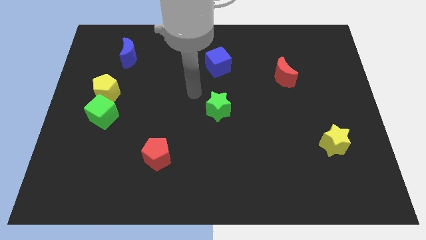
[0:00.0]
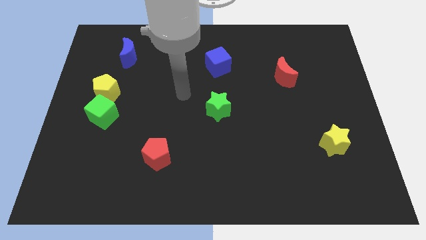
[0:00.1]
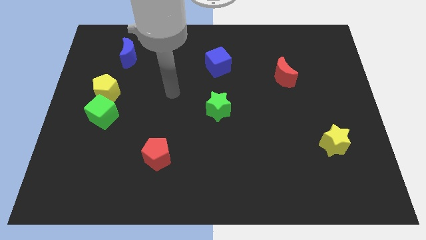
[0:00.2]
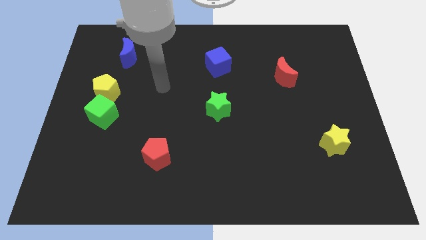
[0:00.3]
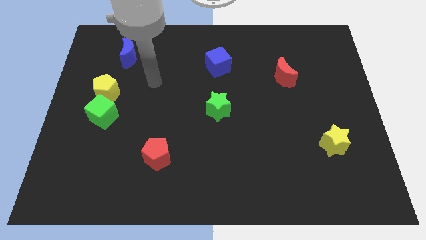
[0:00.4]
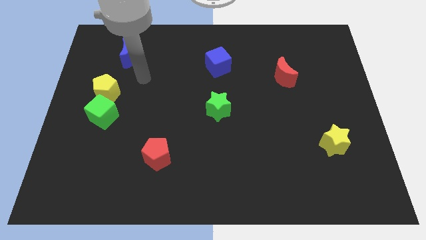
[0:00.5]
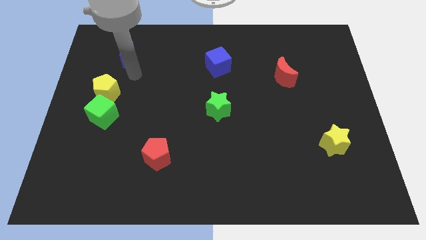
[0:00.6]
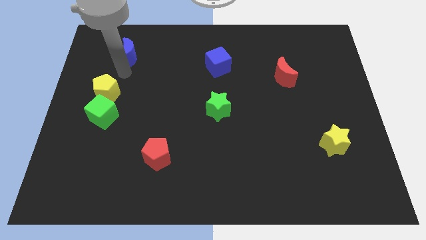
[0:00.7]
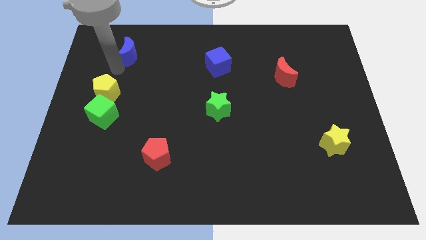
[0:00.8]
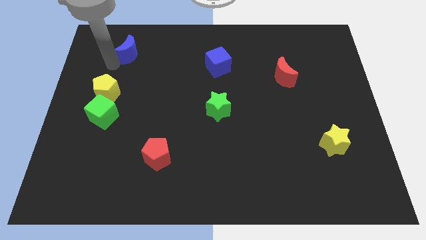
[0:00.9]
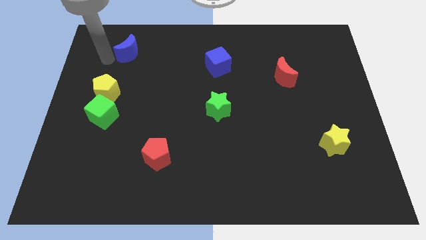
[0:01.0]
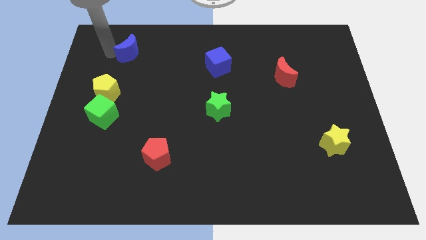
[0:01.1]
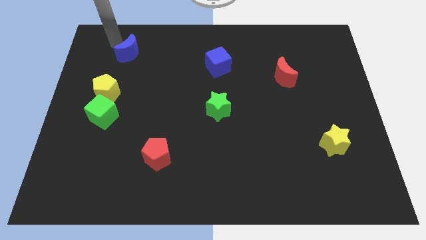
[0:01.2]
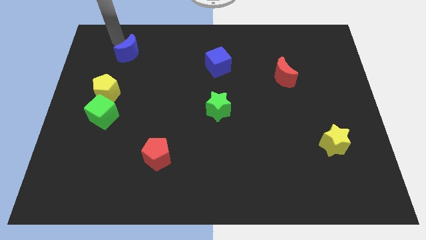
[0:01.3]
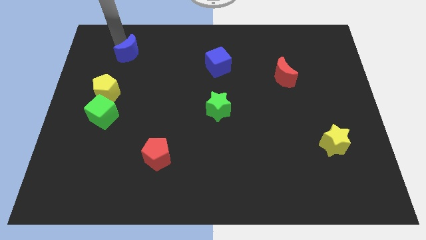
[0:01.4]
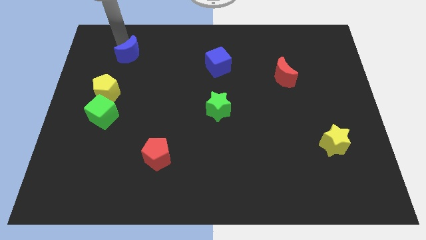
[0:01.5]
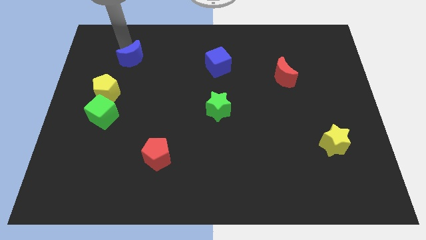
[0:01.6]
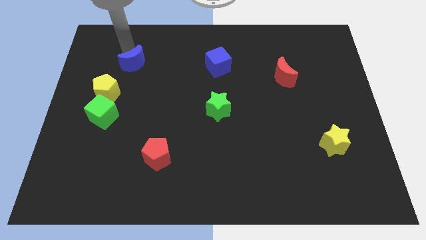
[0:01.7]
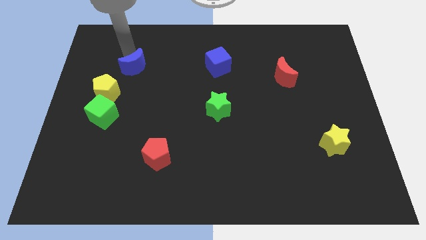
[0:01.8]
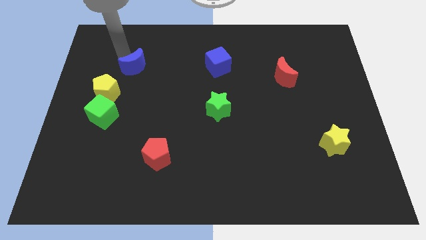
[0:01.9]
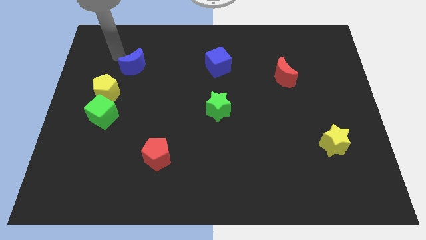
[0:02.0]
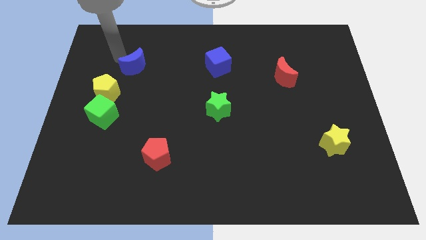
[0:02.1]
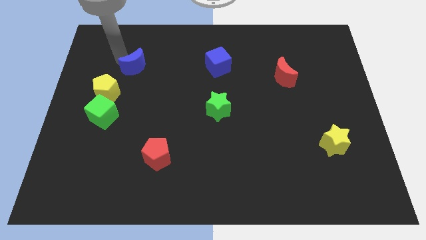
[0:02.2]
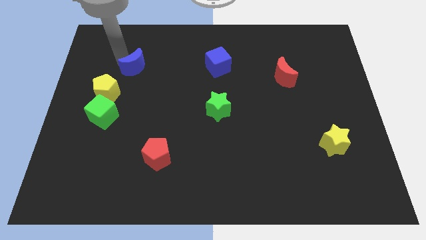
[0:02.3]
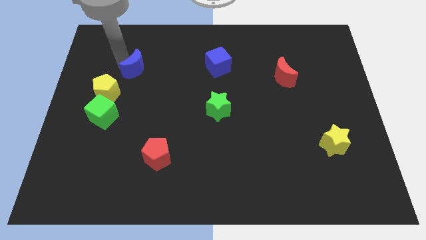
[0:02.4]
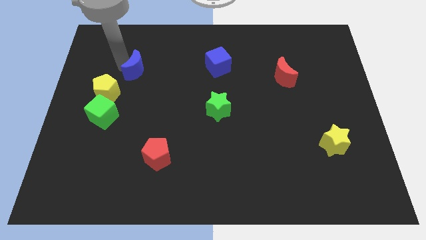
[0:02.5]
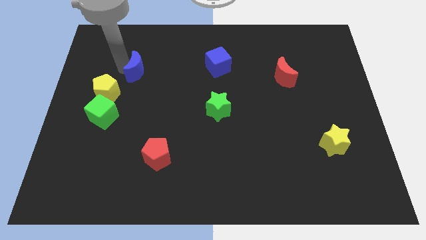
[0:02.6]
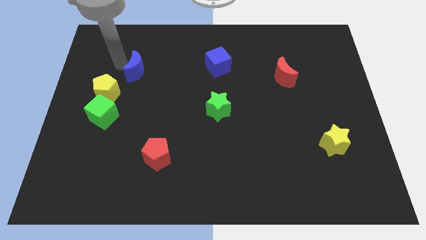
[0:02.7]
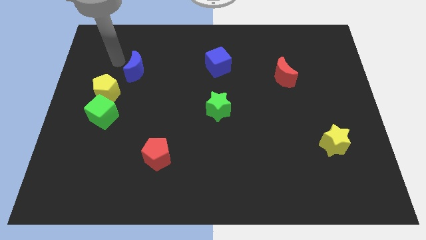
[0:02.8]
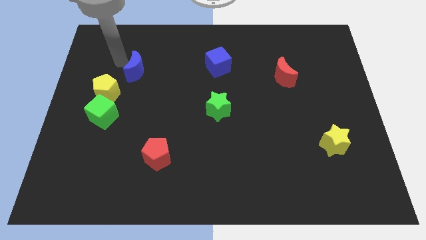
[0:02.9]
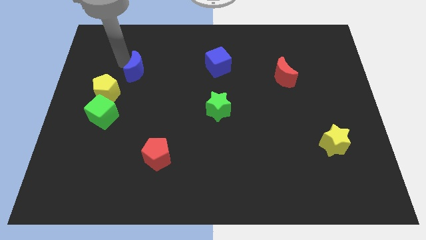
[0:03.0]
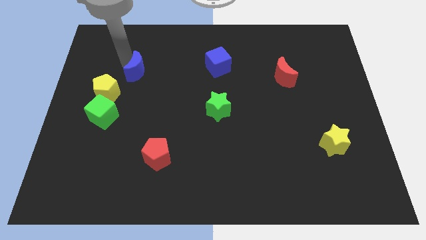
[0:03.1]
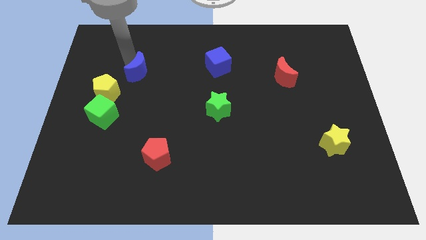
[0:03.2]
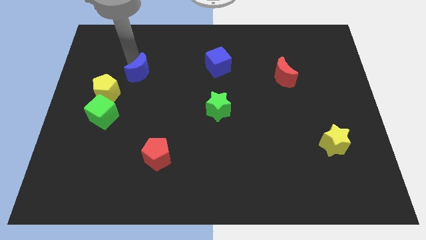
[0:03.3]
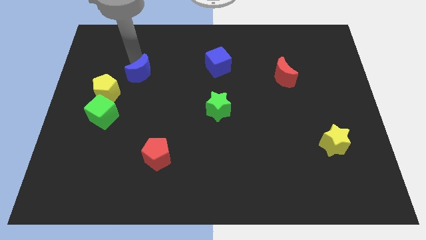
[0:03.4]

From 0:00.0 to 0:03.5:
push the blue moon a little bit diagonally downwards and right

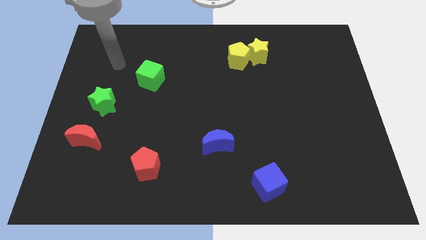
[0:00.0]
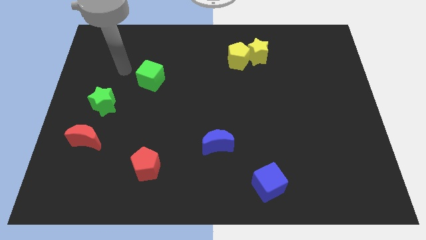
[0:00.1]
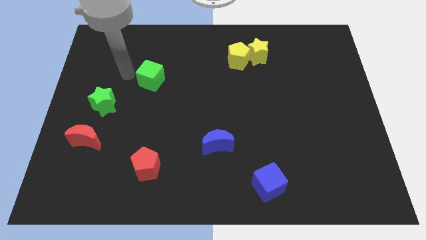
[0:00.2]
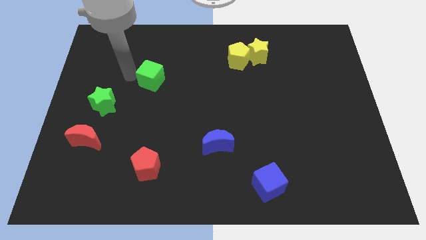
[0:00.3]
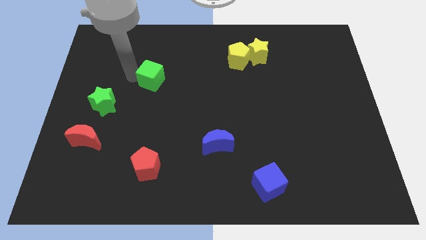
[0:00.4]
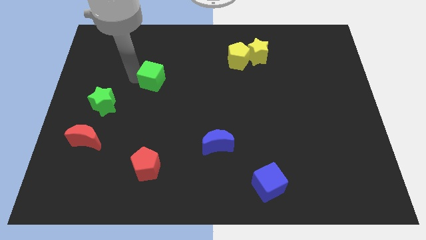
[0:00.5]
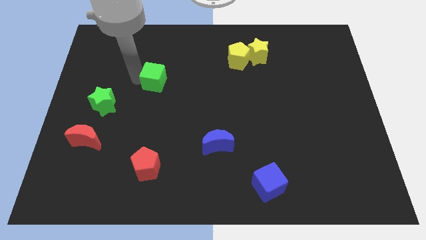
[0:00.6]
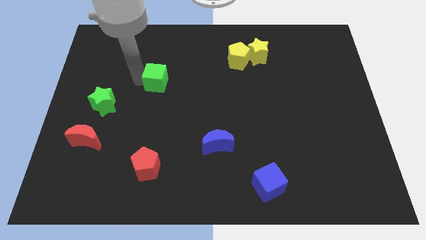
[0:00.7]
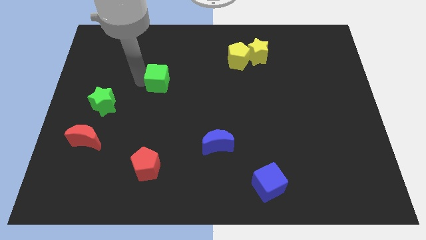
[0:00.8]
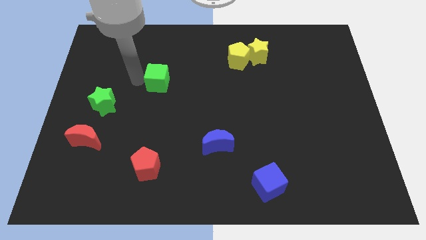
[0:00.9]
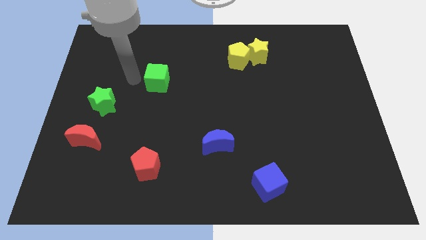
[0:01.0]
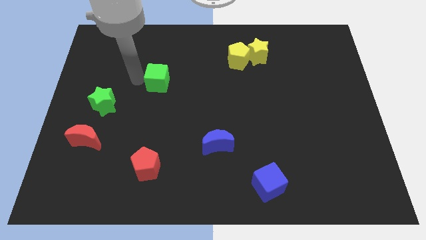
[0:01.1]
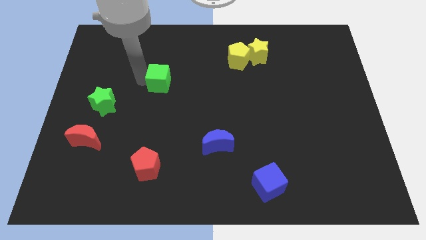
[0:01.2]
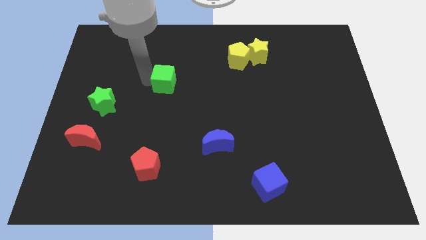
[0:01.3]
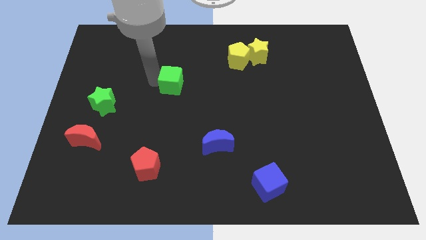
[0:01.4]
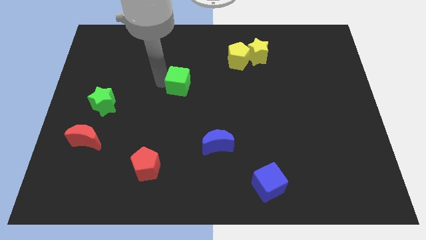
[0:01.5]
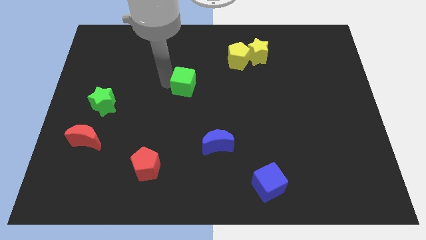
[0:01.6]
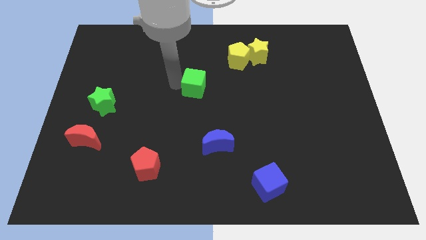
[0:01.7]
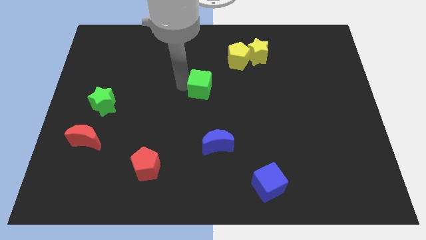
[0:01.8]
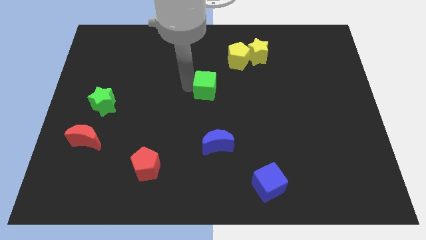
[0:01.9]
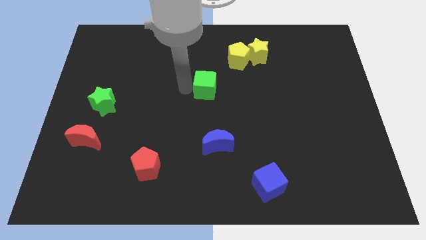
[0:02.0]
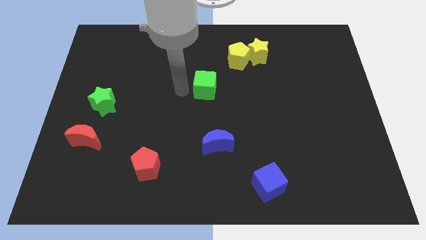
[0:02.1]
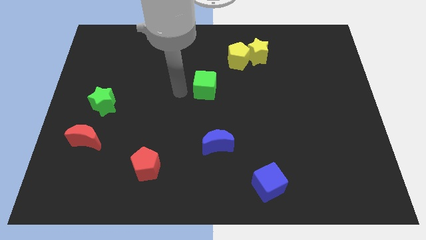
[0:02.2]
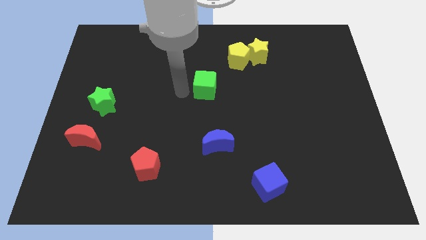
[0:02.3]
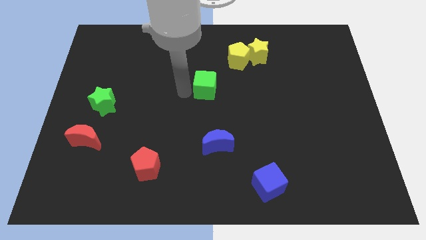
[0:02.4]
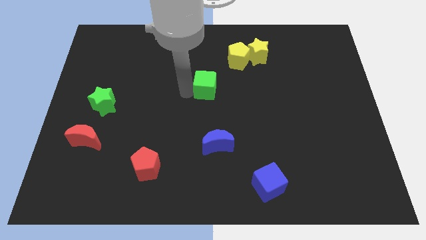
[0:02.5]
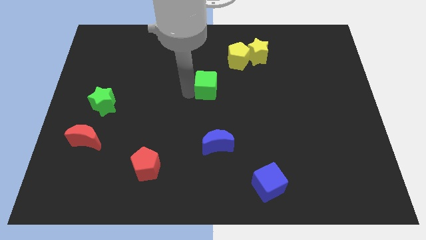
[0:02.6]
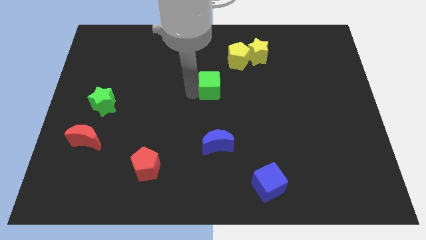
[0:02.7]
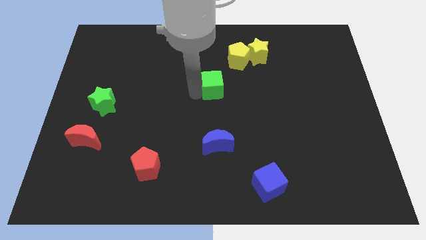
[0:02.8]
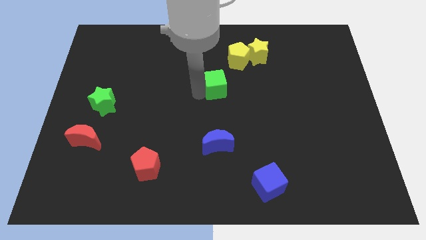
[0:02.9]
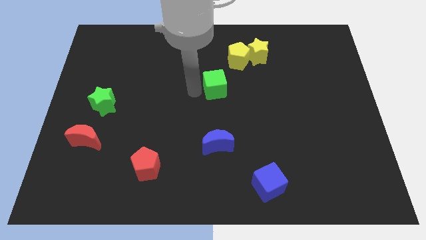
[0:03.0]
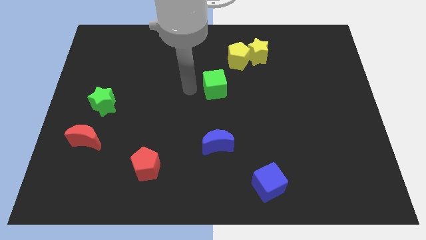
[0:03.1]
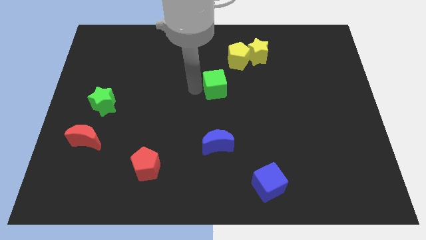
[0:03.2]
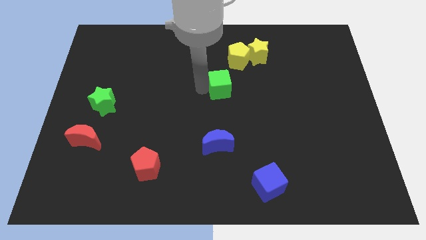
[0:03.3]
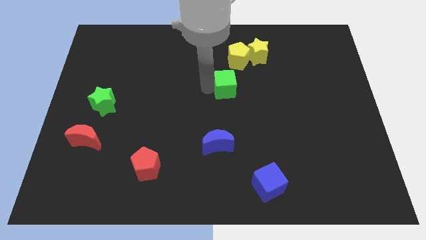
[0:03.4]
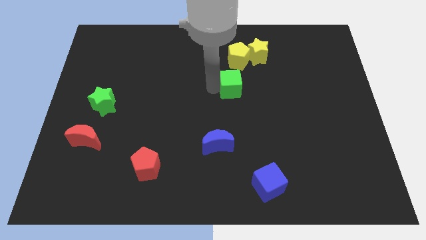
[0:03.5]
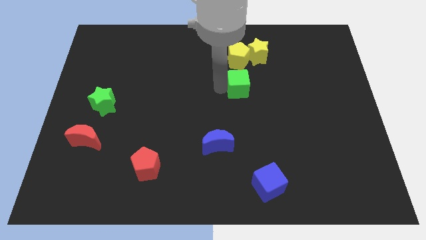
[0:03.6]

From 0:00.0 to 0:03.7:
push the green cube right

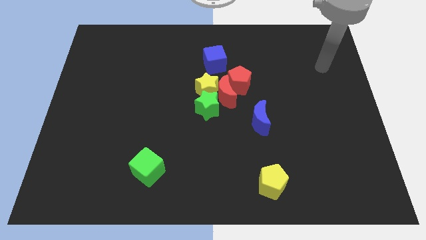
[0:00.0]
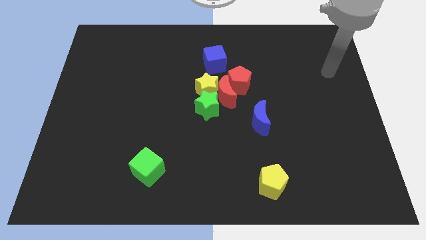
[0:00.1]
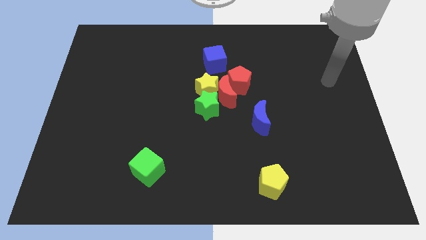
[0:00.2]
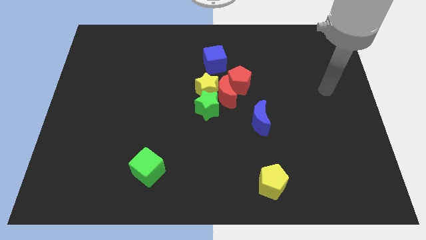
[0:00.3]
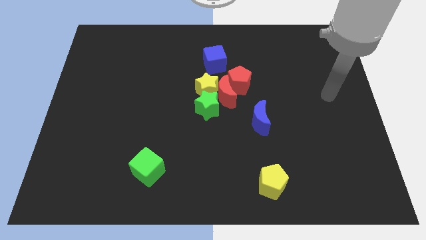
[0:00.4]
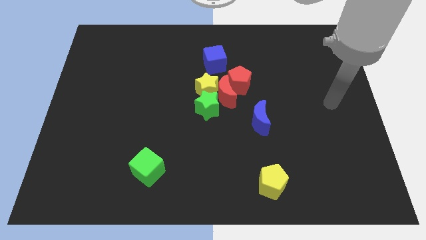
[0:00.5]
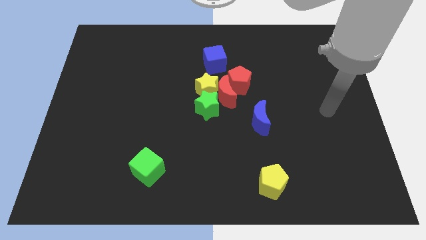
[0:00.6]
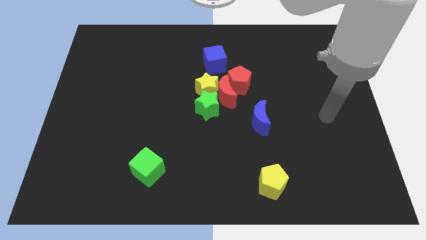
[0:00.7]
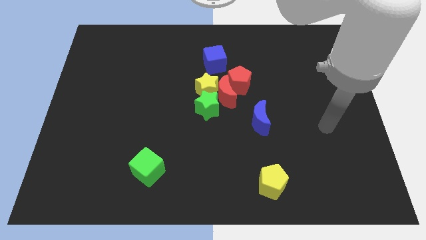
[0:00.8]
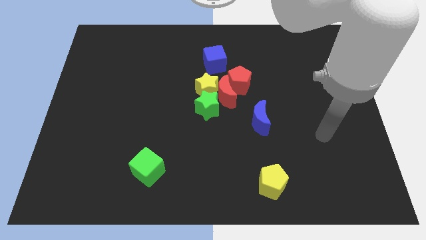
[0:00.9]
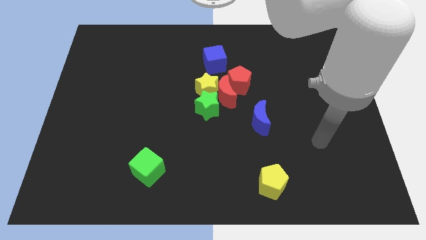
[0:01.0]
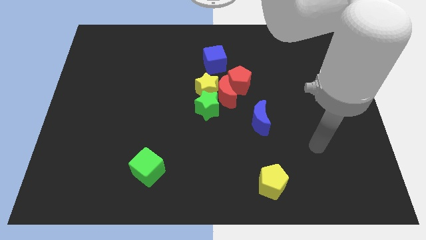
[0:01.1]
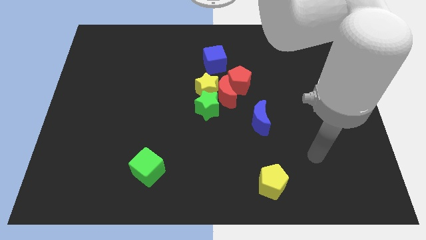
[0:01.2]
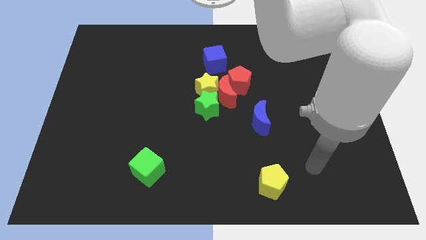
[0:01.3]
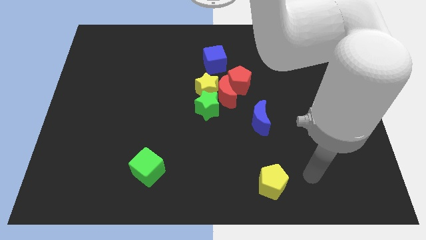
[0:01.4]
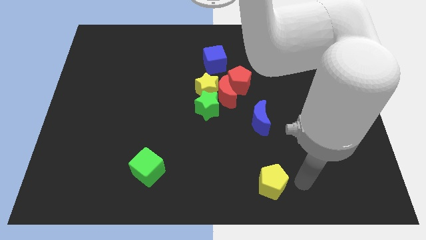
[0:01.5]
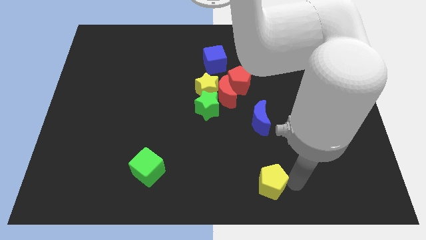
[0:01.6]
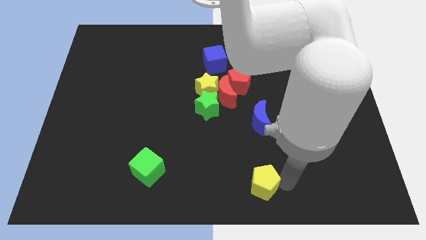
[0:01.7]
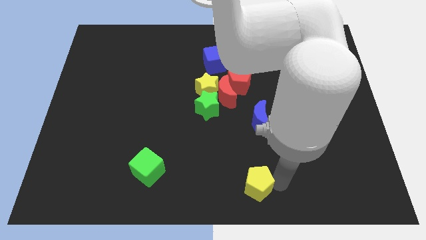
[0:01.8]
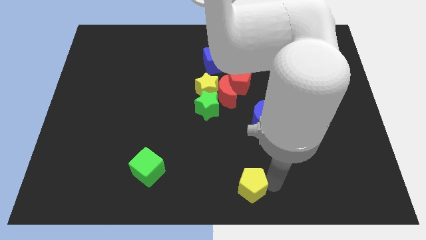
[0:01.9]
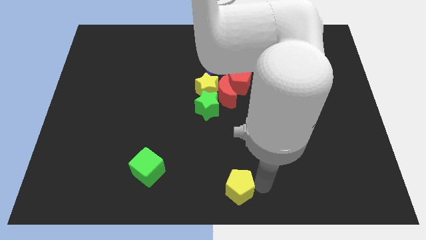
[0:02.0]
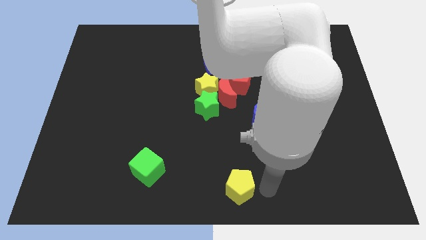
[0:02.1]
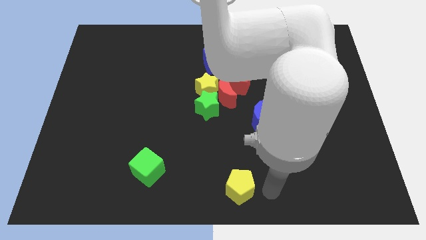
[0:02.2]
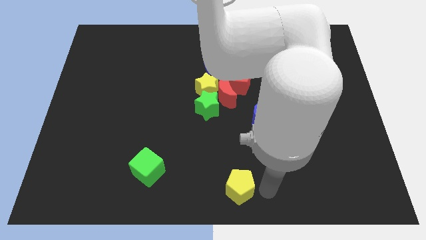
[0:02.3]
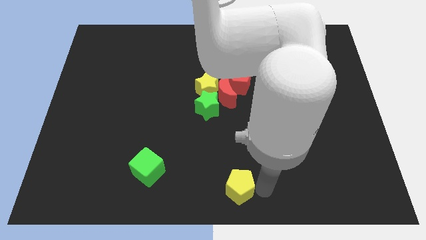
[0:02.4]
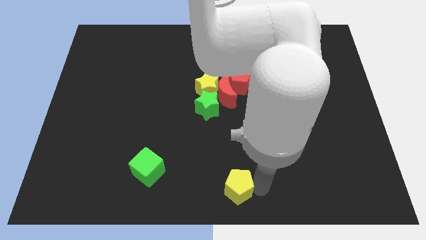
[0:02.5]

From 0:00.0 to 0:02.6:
slide the yellow pentagon a little bit left
